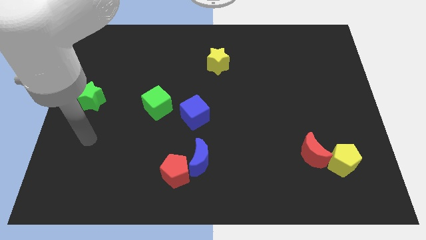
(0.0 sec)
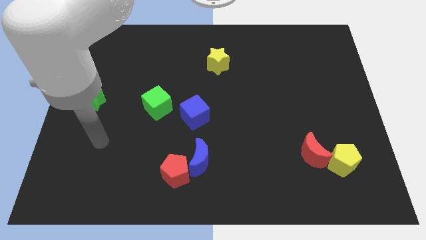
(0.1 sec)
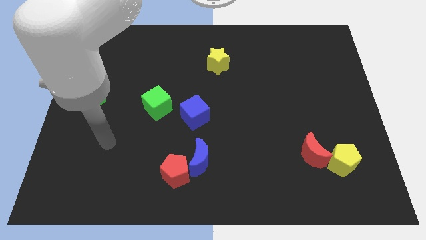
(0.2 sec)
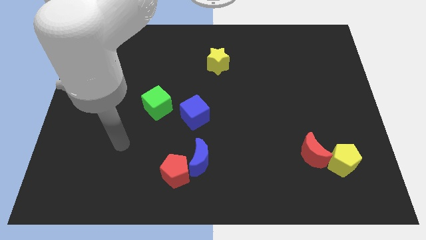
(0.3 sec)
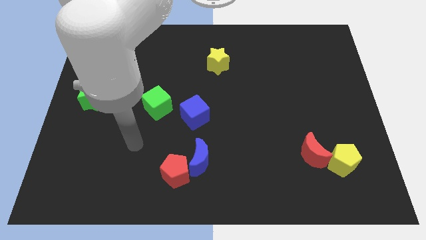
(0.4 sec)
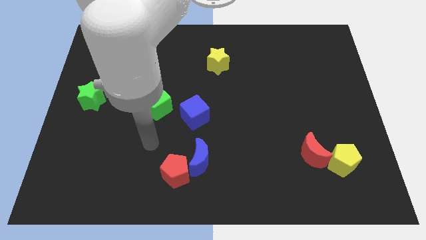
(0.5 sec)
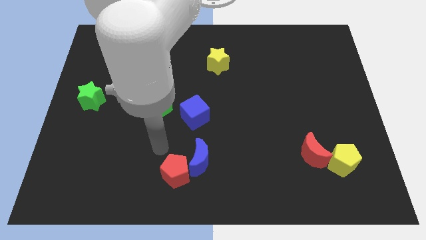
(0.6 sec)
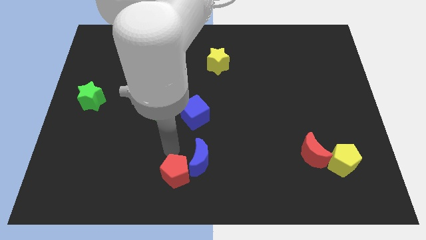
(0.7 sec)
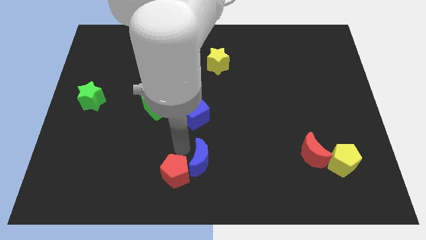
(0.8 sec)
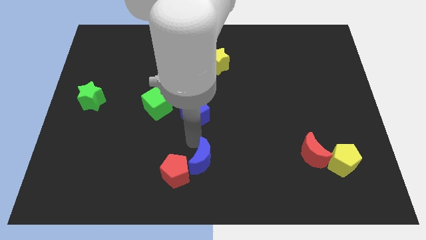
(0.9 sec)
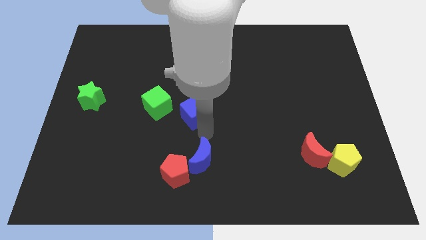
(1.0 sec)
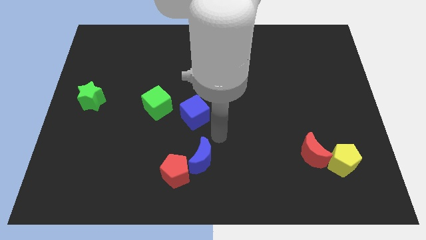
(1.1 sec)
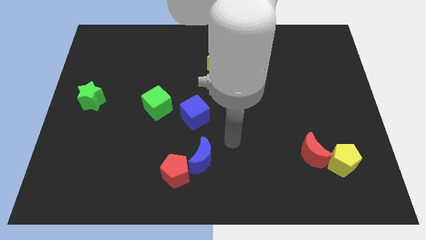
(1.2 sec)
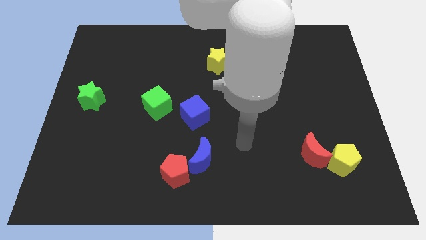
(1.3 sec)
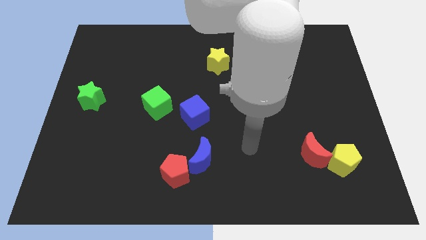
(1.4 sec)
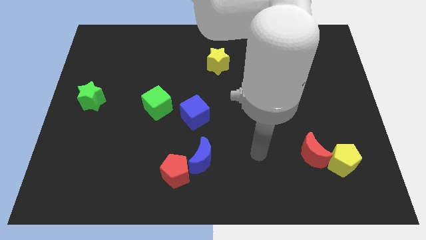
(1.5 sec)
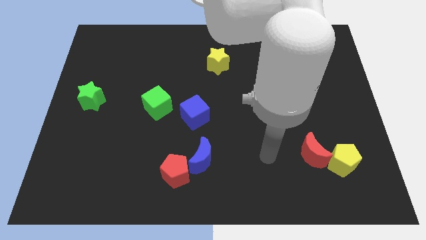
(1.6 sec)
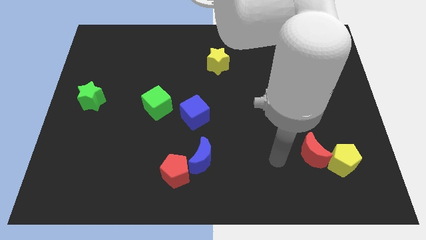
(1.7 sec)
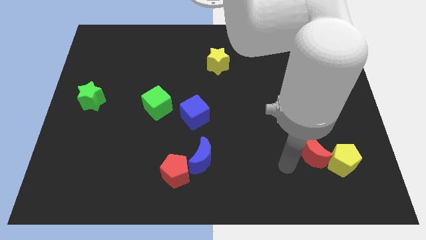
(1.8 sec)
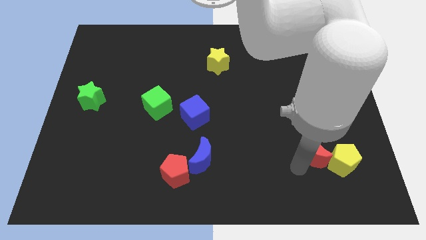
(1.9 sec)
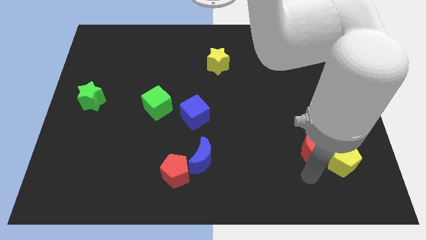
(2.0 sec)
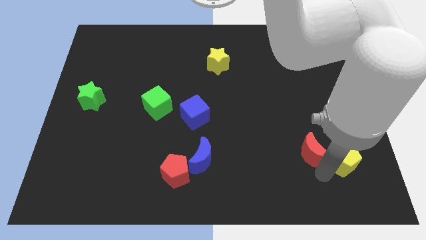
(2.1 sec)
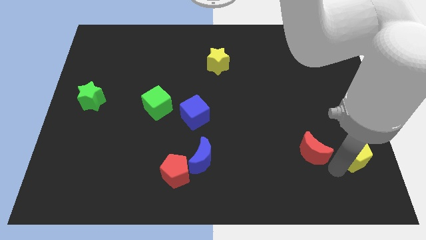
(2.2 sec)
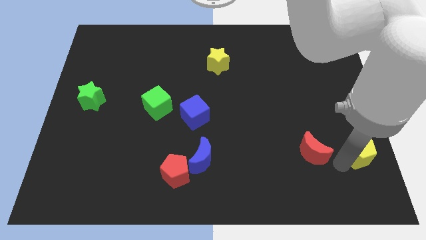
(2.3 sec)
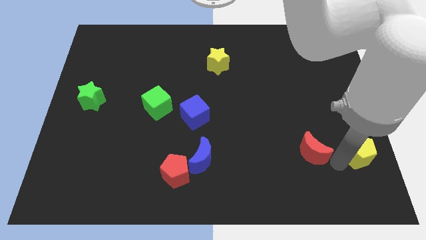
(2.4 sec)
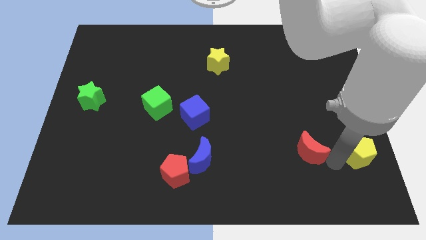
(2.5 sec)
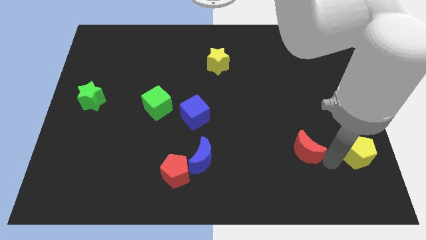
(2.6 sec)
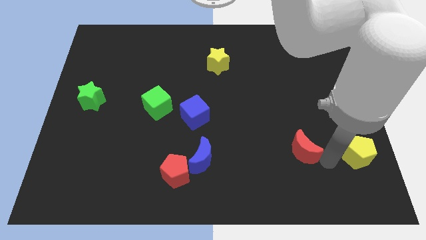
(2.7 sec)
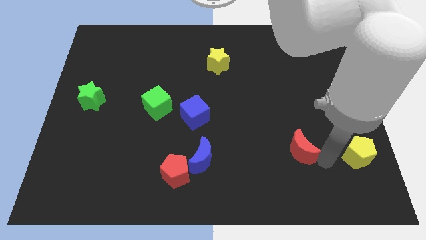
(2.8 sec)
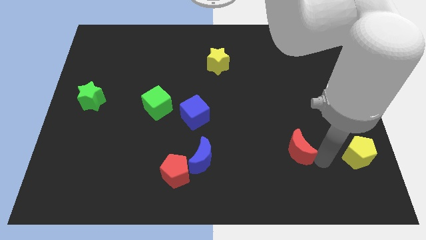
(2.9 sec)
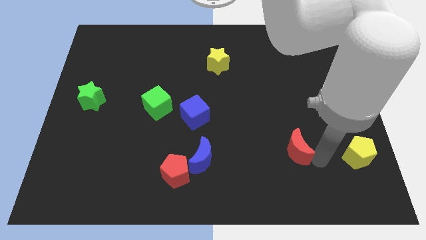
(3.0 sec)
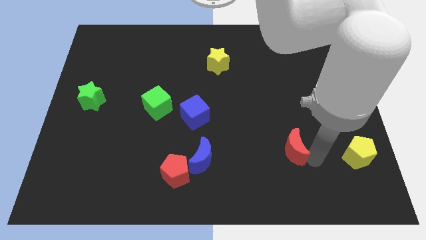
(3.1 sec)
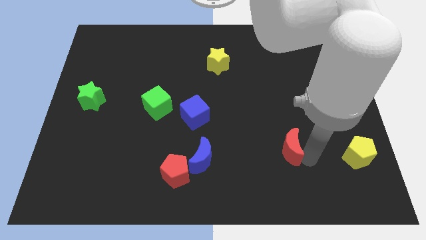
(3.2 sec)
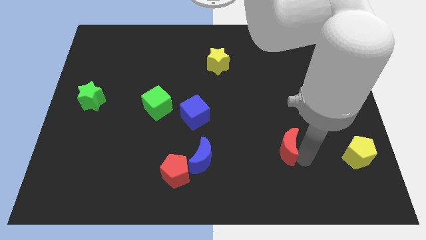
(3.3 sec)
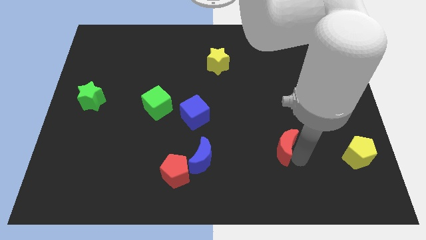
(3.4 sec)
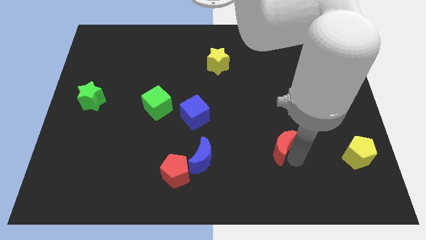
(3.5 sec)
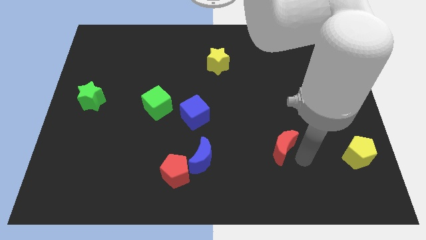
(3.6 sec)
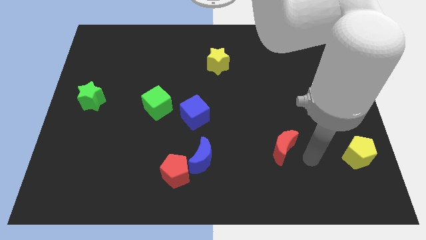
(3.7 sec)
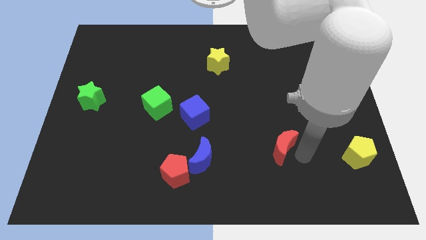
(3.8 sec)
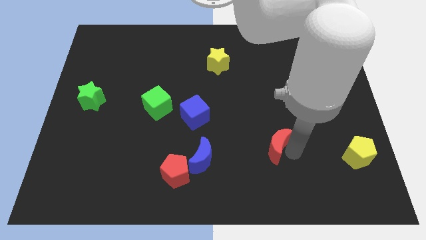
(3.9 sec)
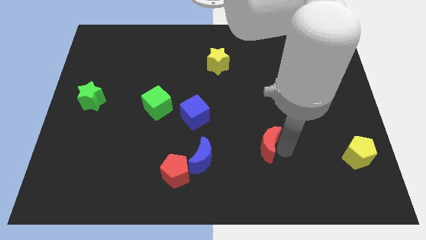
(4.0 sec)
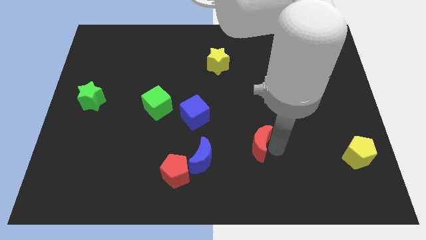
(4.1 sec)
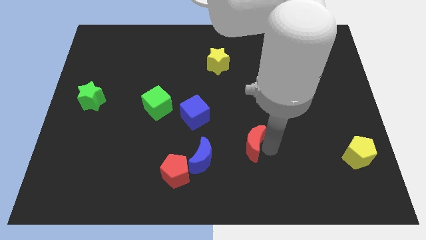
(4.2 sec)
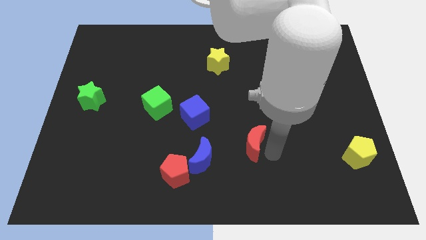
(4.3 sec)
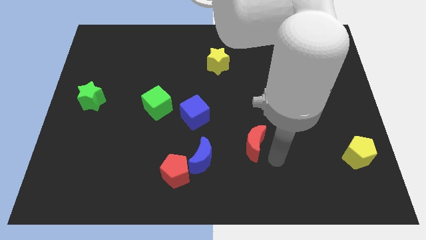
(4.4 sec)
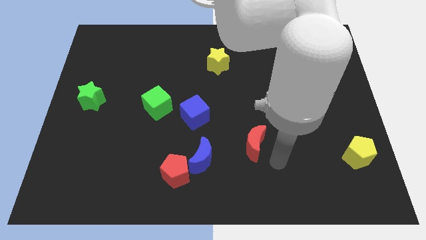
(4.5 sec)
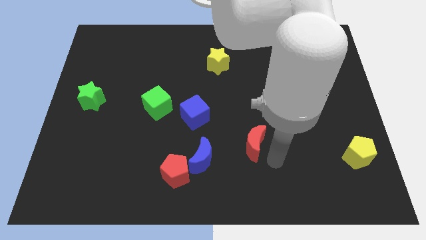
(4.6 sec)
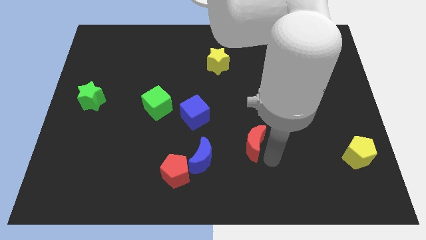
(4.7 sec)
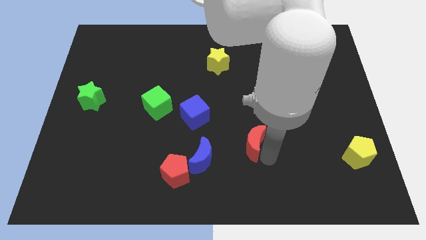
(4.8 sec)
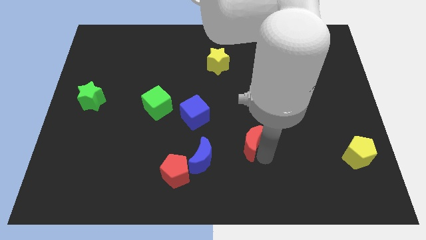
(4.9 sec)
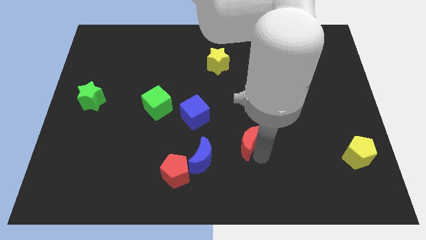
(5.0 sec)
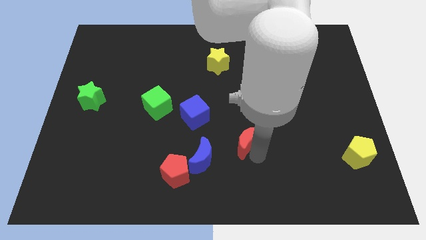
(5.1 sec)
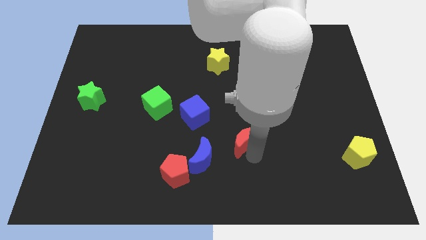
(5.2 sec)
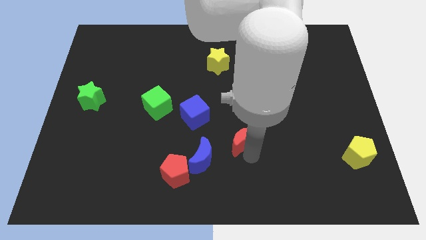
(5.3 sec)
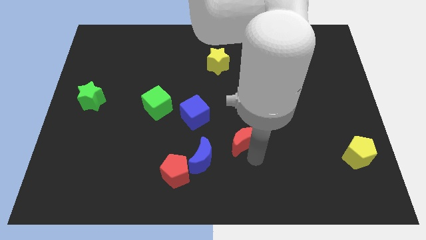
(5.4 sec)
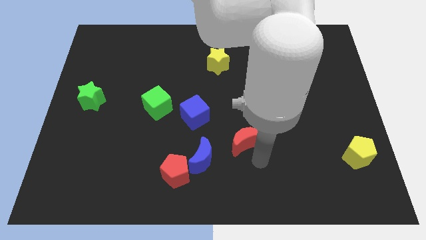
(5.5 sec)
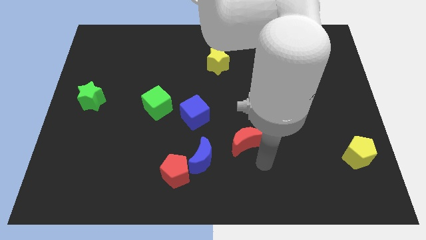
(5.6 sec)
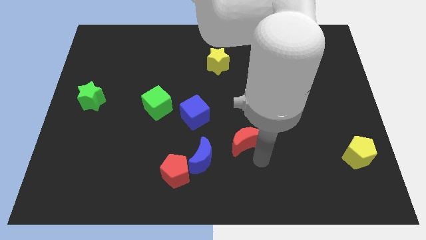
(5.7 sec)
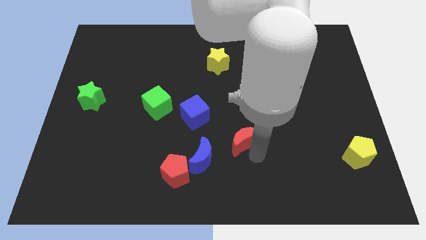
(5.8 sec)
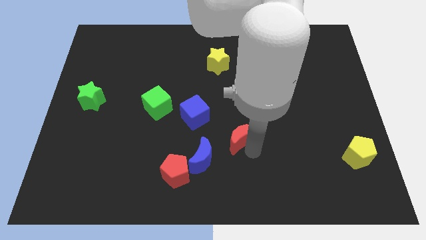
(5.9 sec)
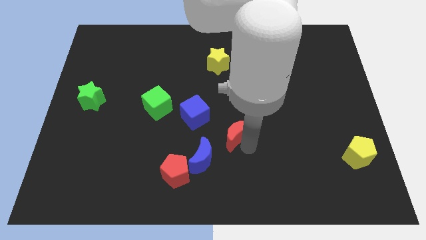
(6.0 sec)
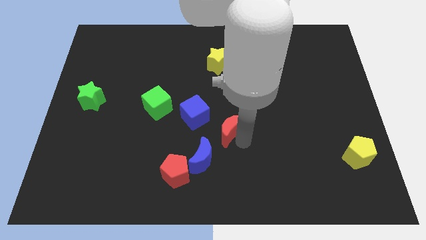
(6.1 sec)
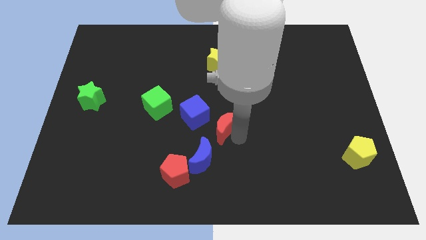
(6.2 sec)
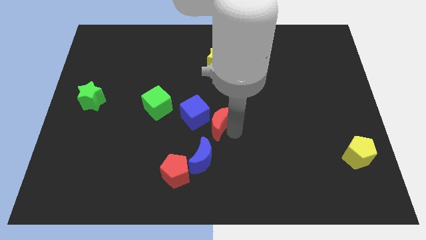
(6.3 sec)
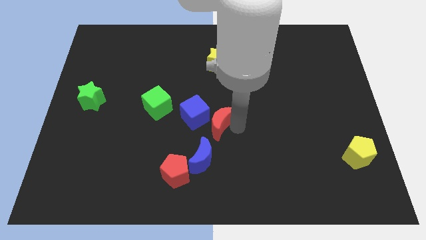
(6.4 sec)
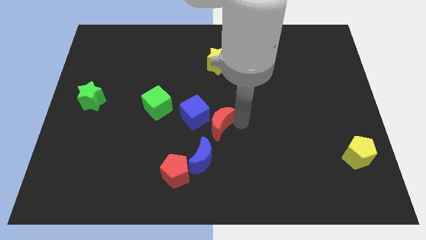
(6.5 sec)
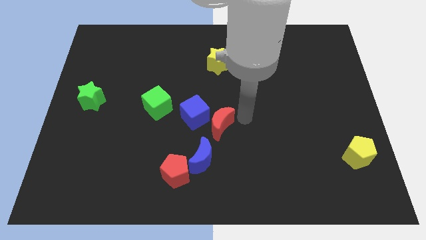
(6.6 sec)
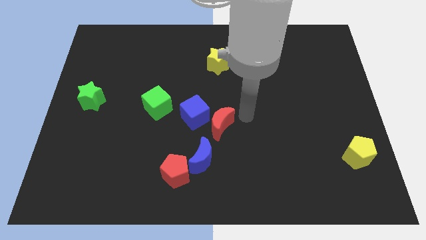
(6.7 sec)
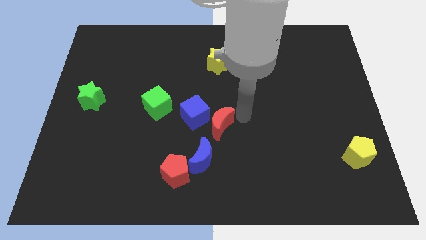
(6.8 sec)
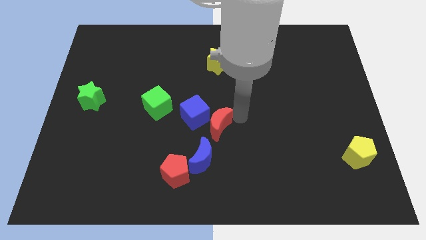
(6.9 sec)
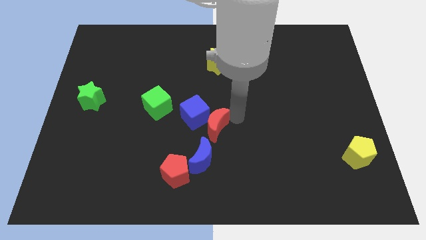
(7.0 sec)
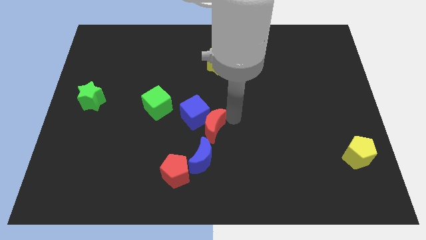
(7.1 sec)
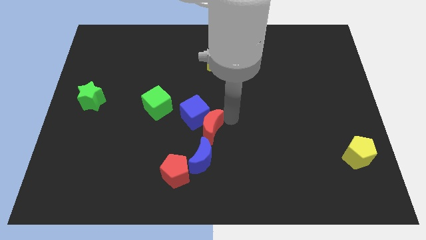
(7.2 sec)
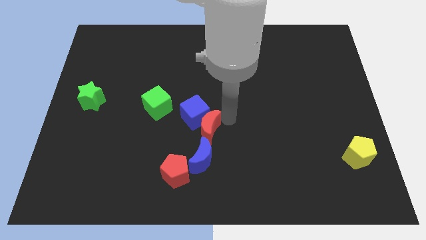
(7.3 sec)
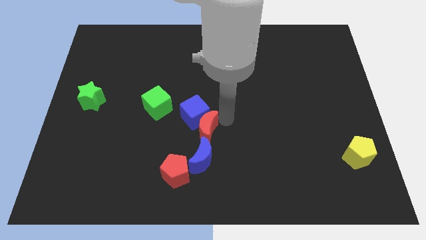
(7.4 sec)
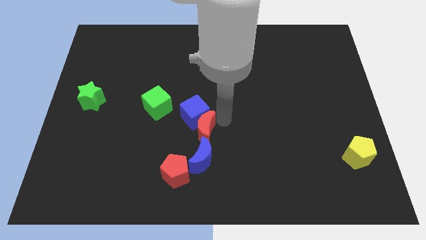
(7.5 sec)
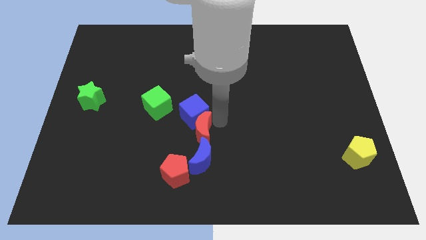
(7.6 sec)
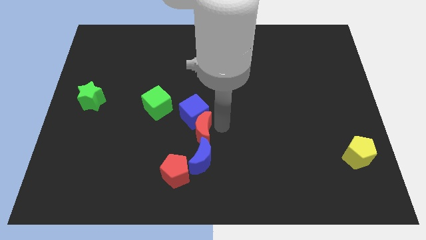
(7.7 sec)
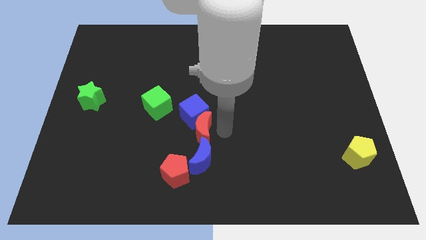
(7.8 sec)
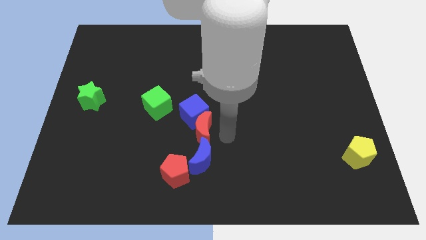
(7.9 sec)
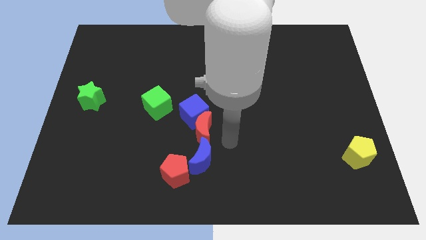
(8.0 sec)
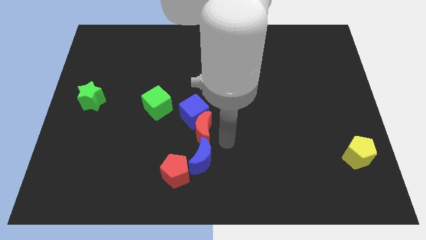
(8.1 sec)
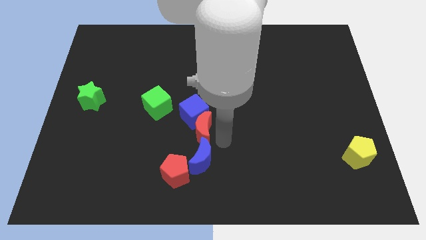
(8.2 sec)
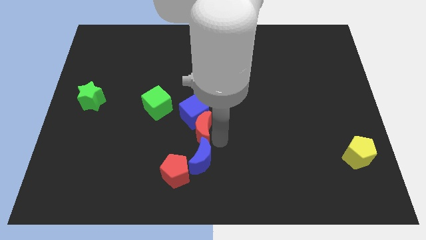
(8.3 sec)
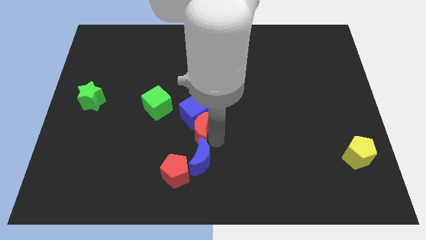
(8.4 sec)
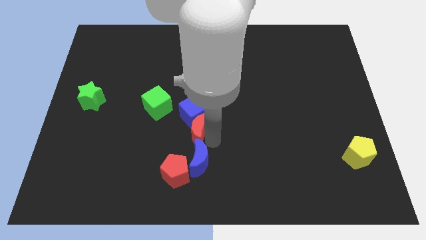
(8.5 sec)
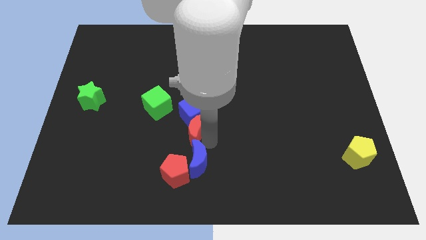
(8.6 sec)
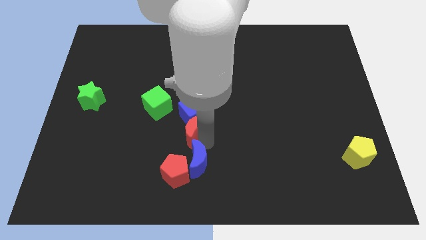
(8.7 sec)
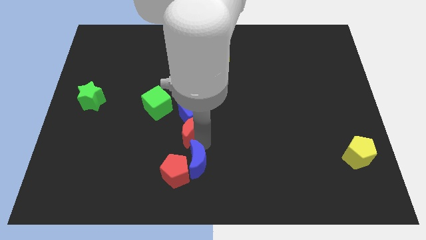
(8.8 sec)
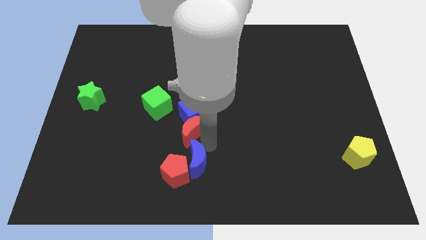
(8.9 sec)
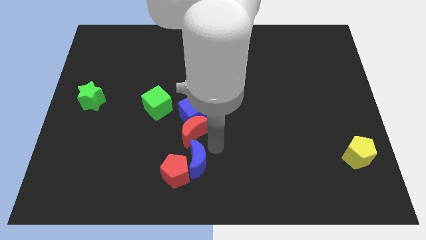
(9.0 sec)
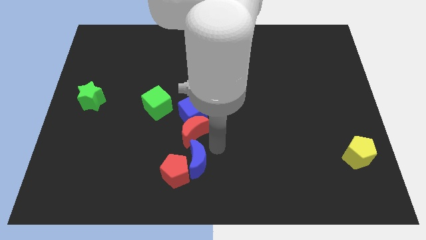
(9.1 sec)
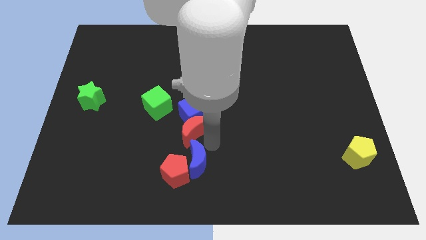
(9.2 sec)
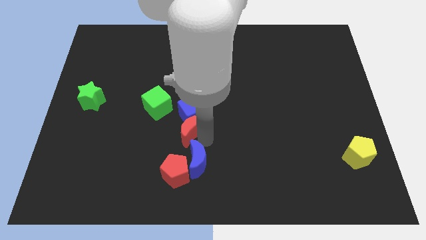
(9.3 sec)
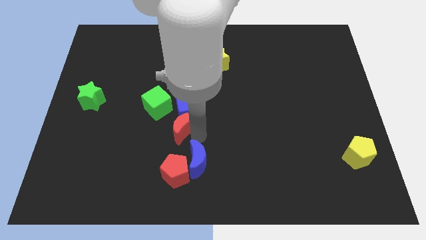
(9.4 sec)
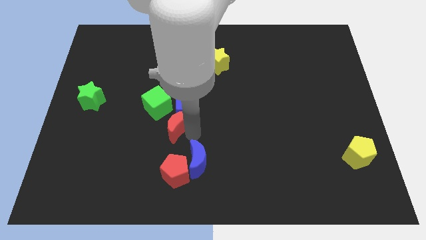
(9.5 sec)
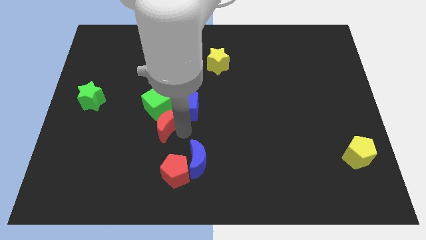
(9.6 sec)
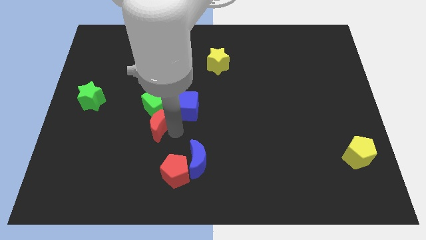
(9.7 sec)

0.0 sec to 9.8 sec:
put the red moon to the green cube
